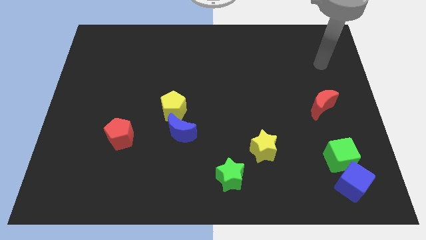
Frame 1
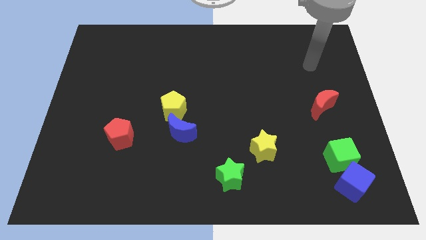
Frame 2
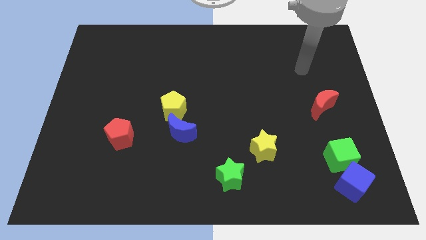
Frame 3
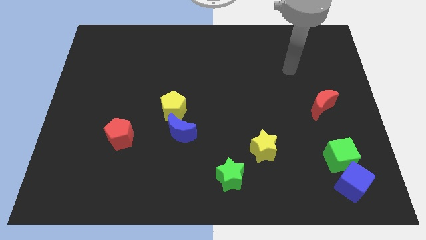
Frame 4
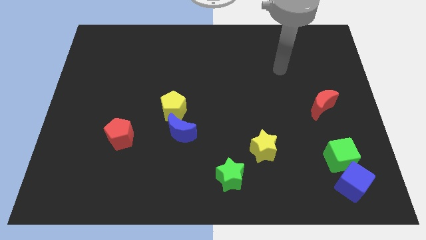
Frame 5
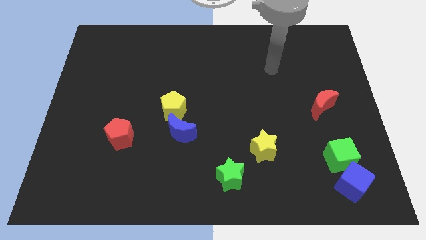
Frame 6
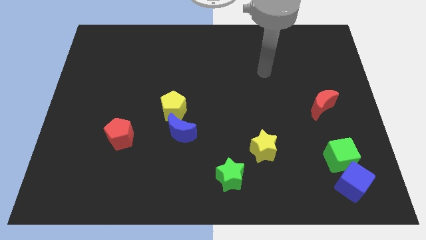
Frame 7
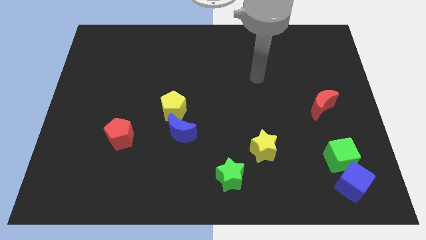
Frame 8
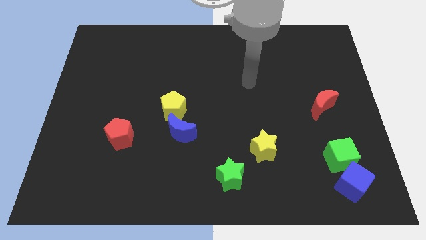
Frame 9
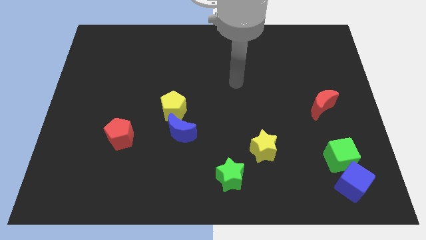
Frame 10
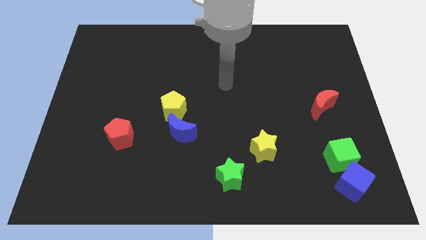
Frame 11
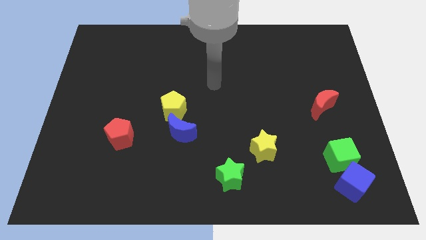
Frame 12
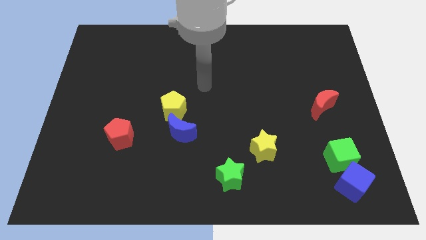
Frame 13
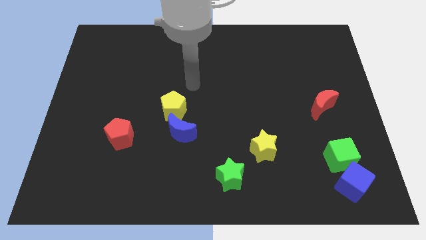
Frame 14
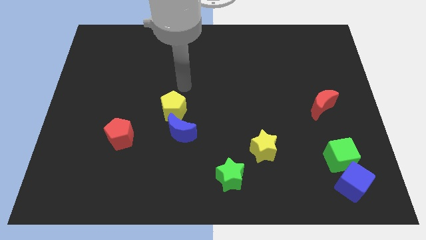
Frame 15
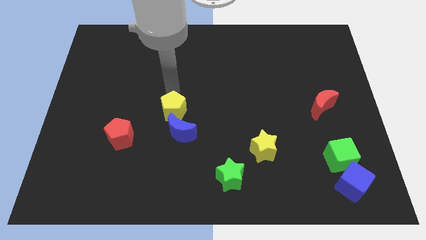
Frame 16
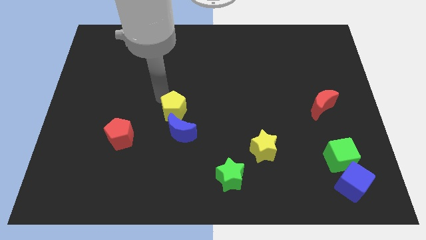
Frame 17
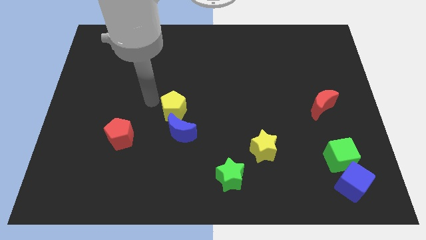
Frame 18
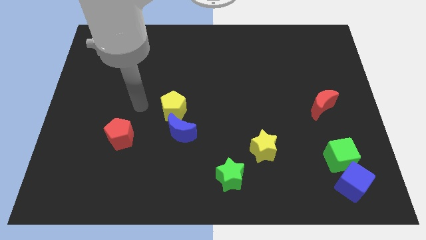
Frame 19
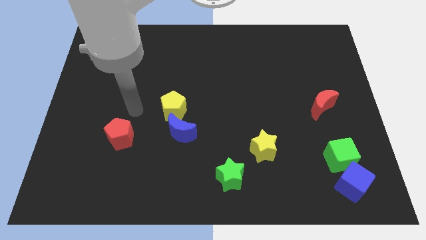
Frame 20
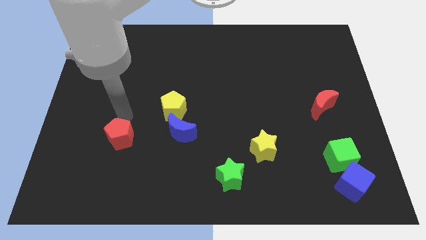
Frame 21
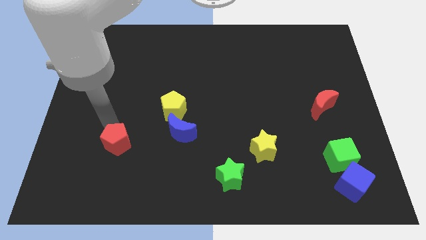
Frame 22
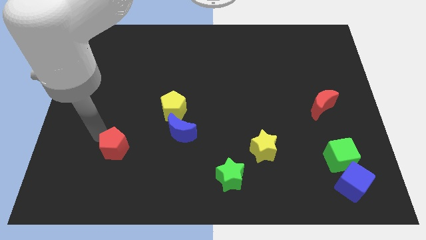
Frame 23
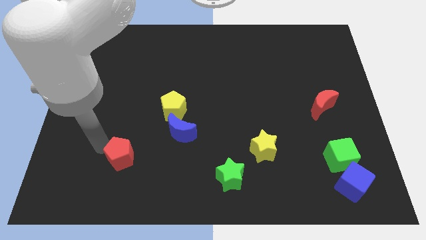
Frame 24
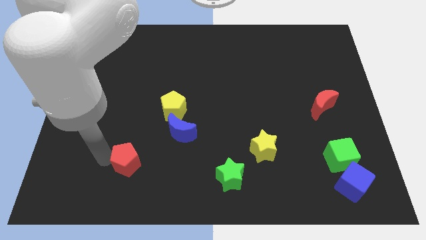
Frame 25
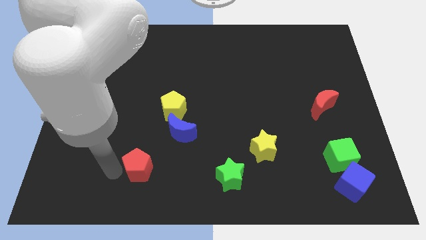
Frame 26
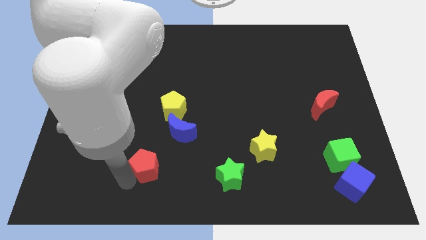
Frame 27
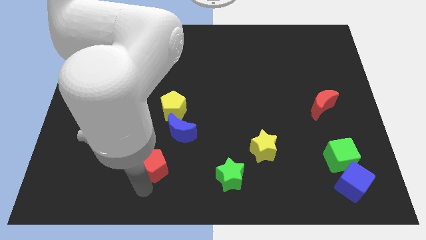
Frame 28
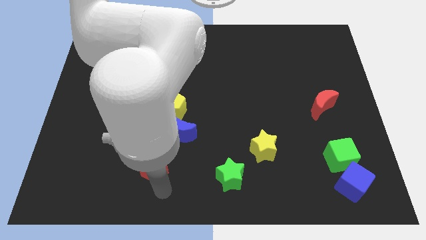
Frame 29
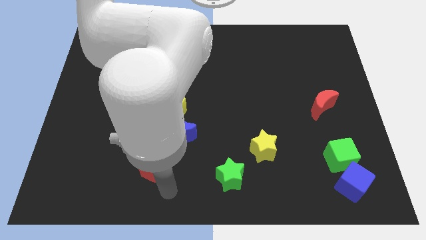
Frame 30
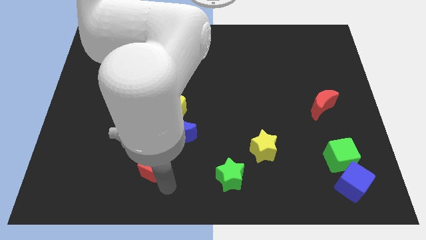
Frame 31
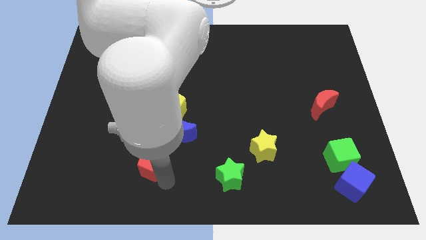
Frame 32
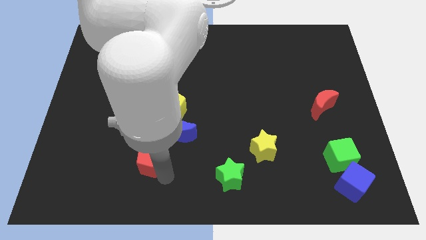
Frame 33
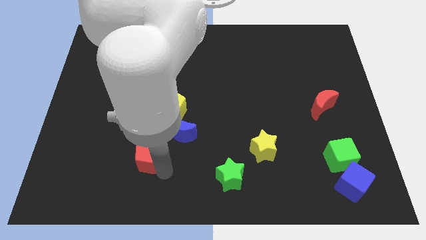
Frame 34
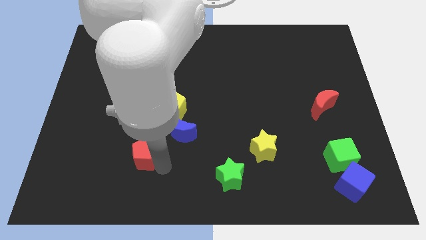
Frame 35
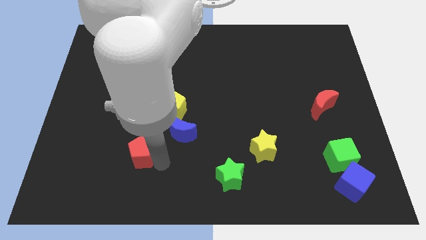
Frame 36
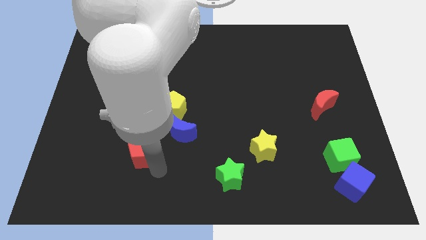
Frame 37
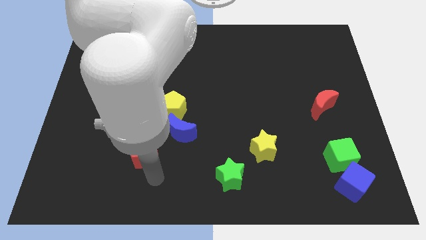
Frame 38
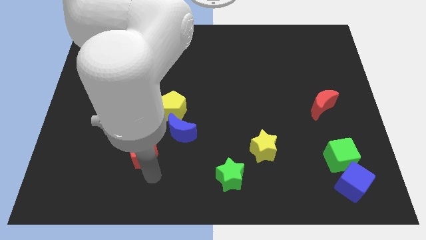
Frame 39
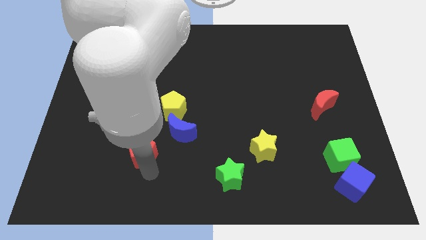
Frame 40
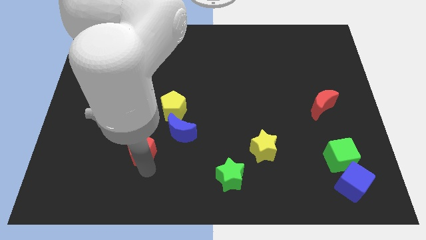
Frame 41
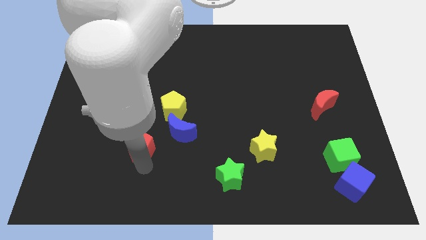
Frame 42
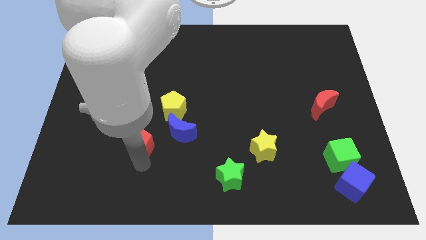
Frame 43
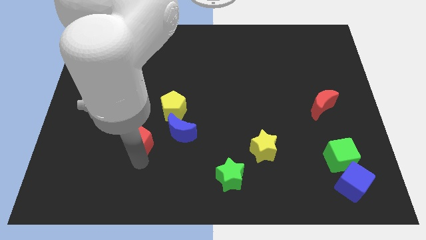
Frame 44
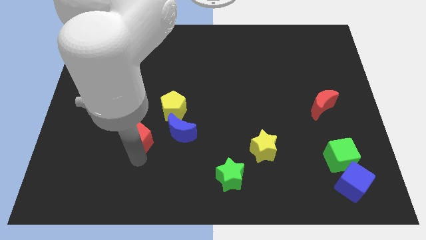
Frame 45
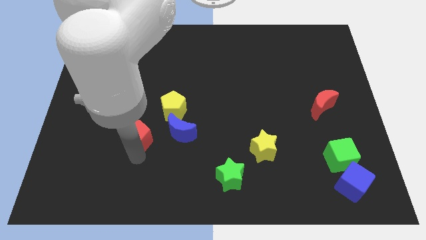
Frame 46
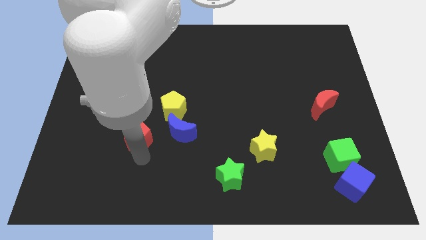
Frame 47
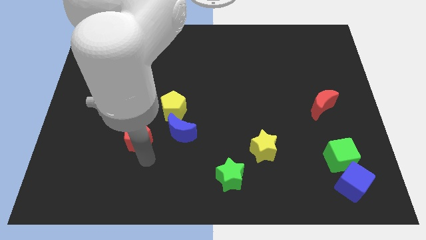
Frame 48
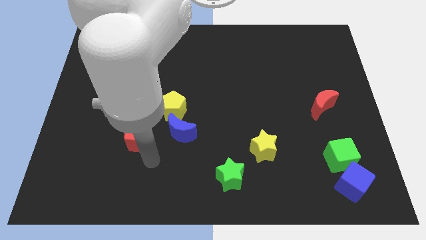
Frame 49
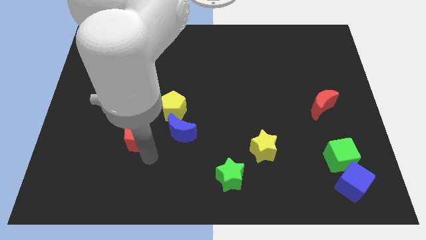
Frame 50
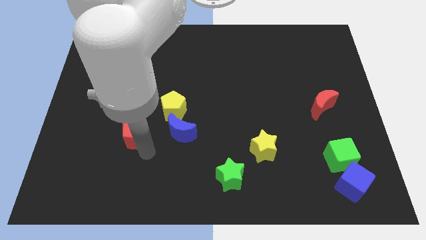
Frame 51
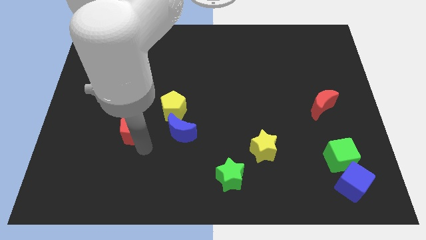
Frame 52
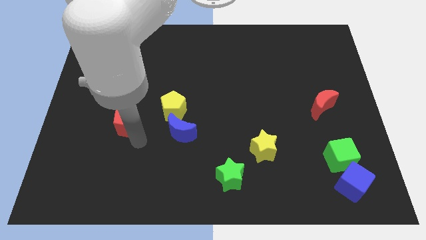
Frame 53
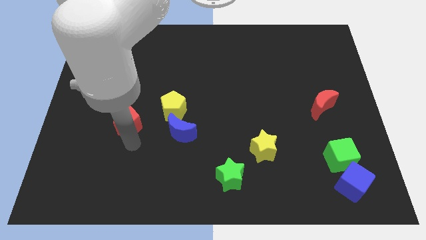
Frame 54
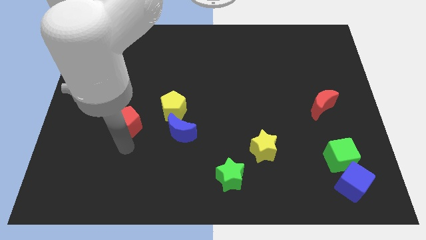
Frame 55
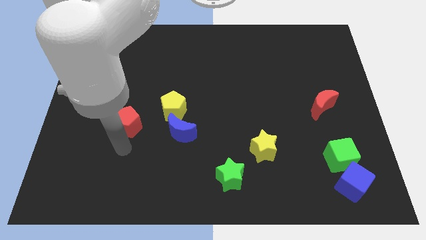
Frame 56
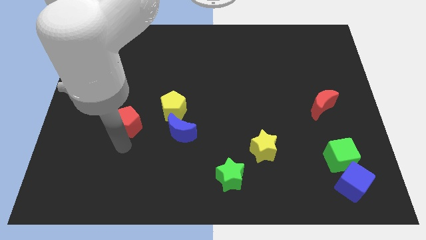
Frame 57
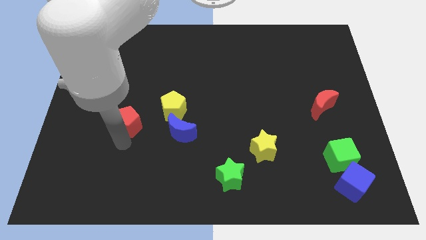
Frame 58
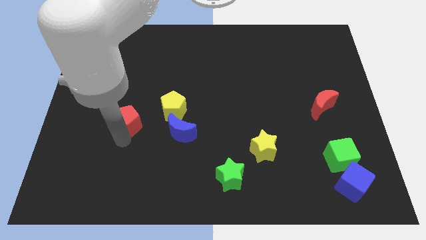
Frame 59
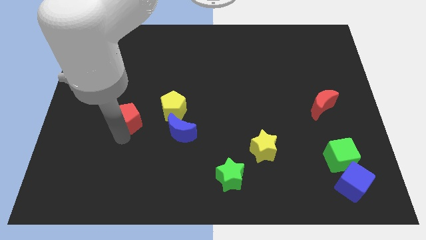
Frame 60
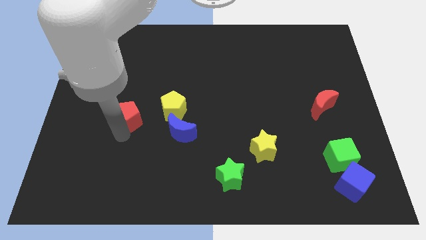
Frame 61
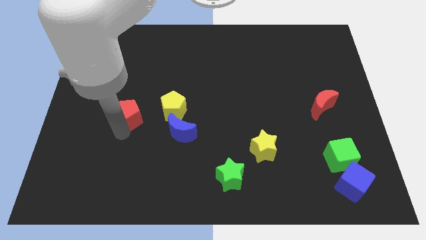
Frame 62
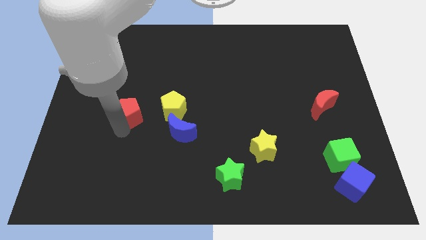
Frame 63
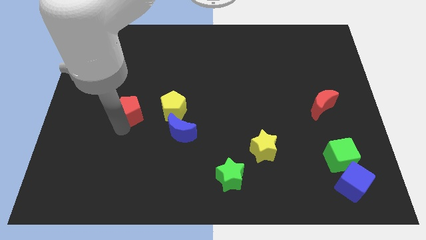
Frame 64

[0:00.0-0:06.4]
slightly move the red pentagon upwards

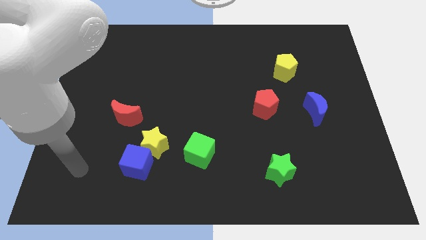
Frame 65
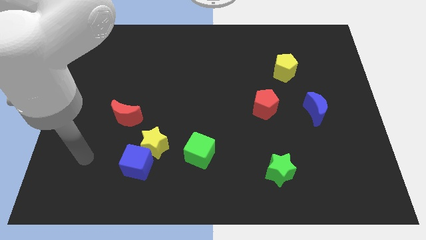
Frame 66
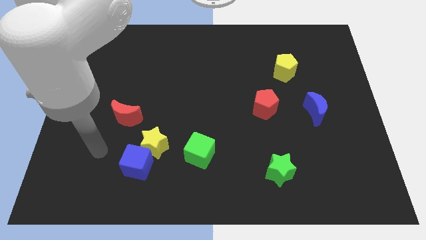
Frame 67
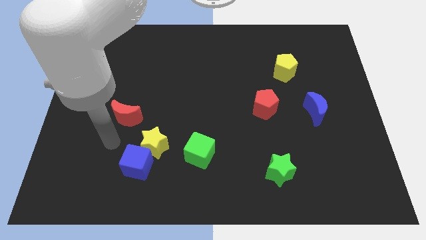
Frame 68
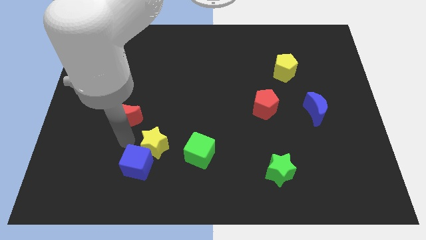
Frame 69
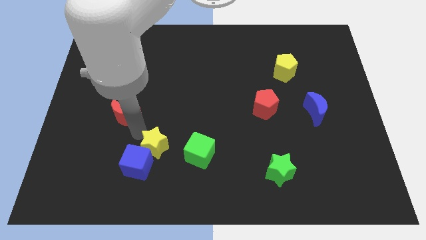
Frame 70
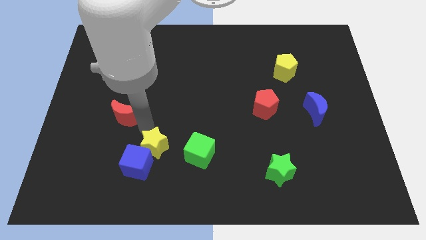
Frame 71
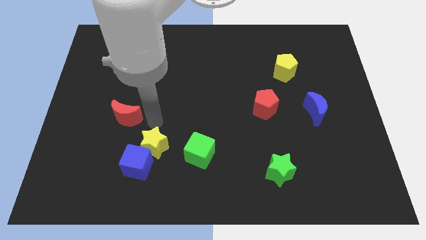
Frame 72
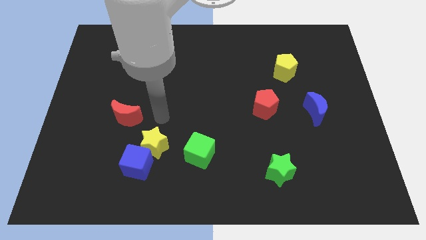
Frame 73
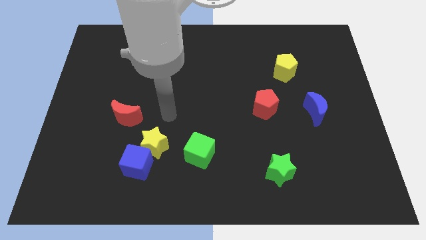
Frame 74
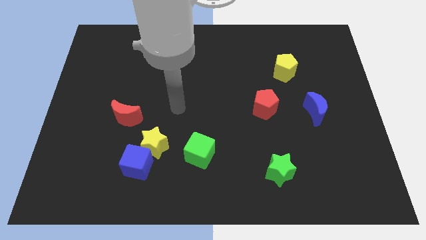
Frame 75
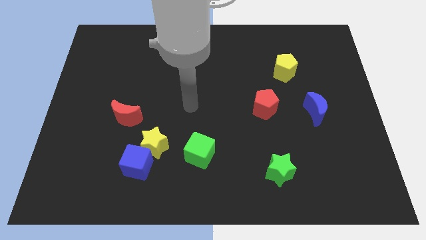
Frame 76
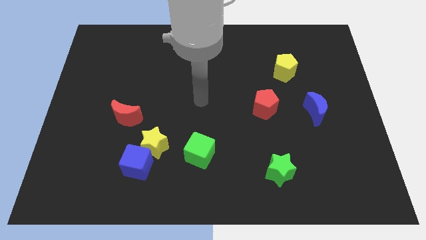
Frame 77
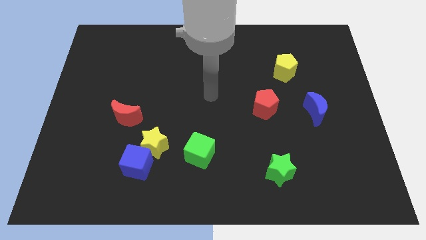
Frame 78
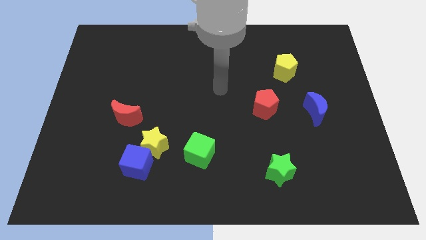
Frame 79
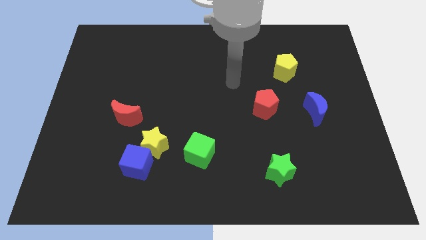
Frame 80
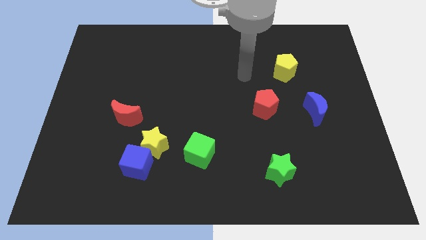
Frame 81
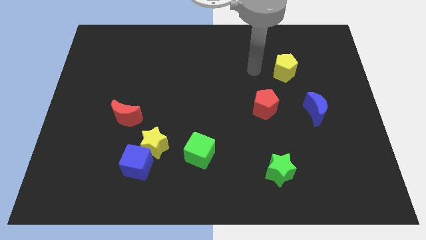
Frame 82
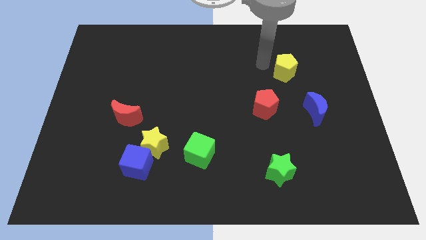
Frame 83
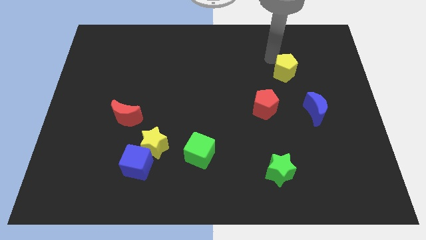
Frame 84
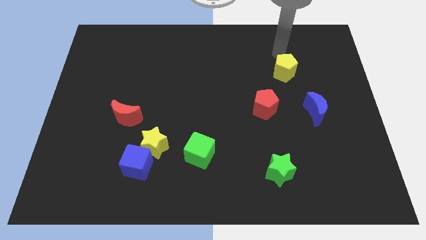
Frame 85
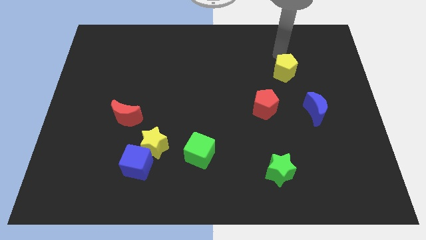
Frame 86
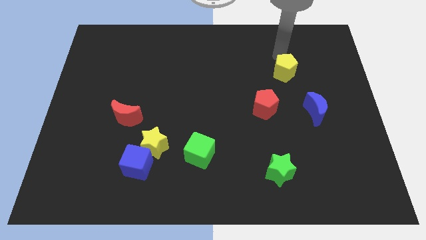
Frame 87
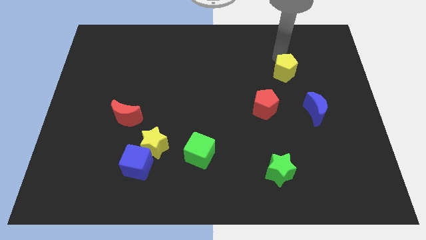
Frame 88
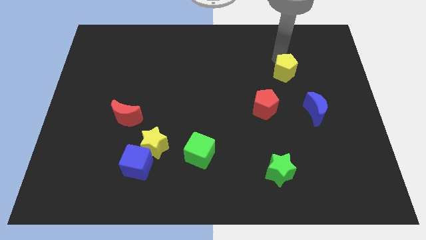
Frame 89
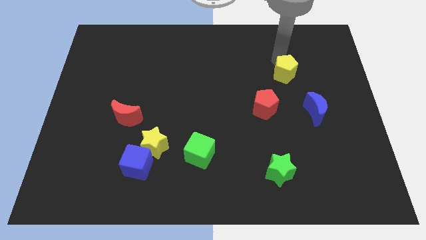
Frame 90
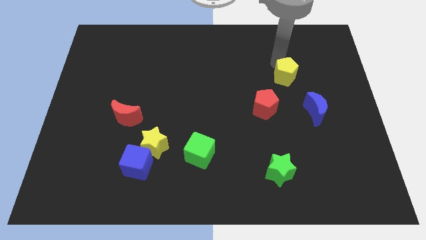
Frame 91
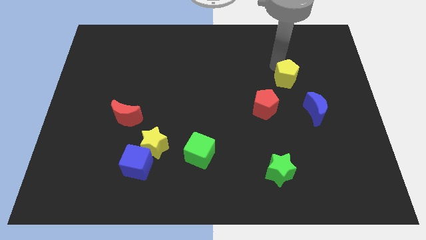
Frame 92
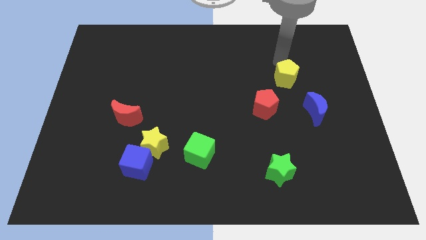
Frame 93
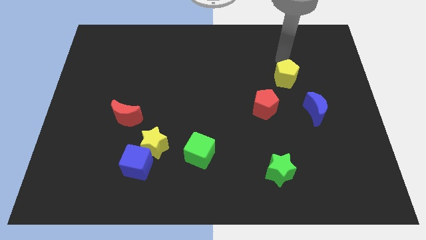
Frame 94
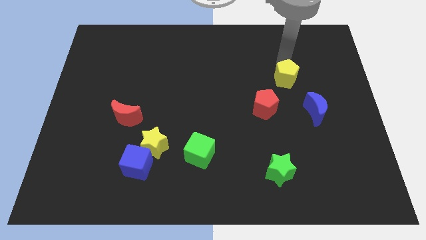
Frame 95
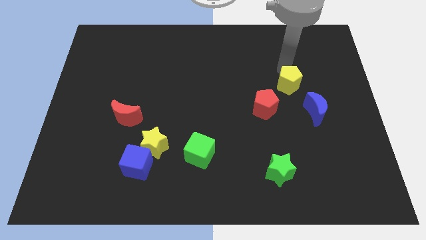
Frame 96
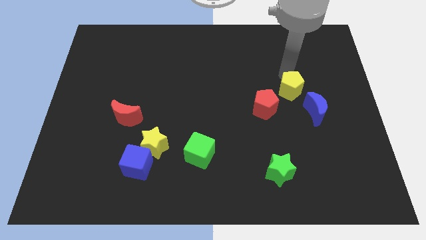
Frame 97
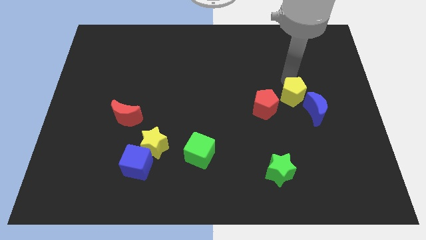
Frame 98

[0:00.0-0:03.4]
push the yellow pentagon down somewhat
